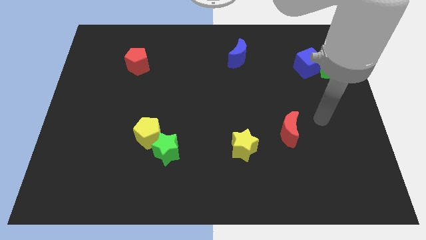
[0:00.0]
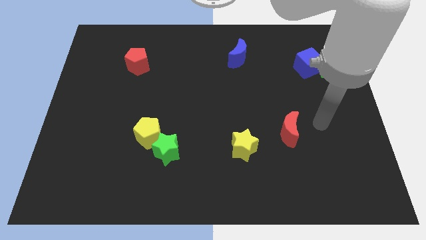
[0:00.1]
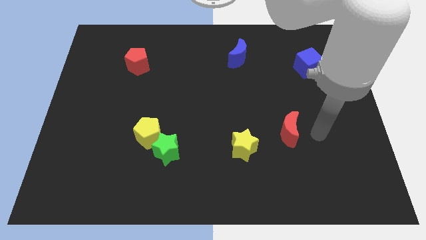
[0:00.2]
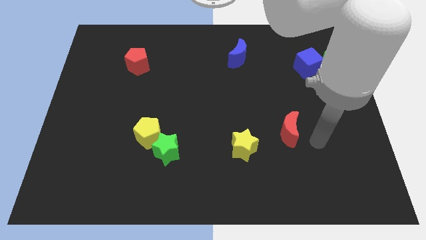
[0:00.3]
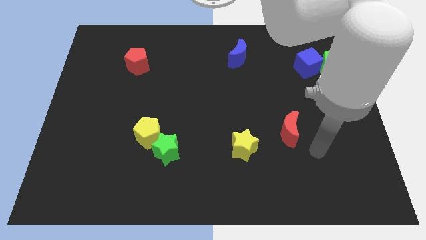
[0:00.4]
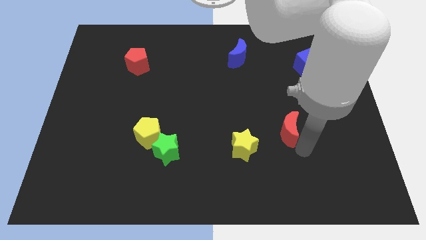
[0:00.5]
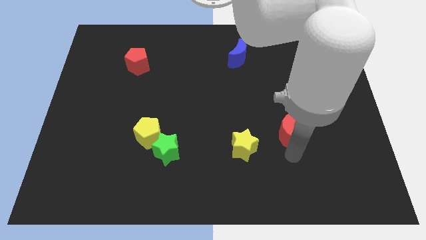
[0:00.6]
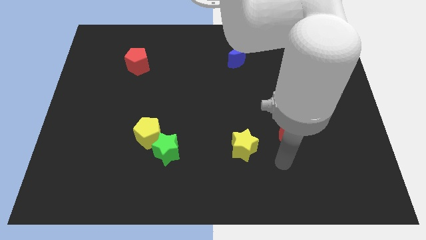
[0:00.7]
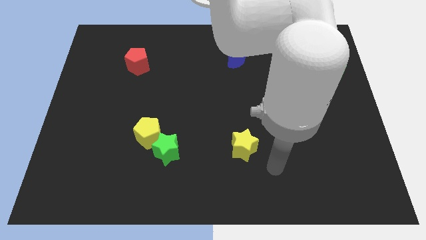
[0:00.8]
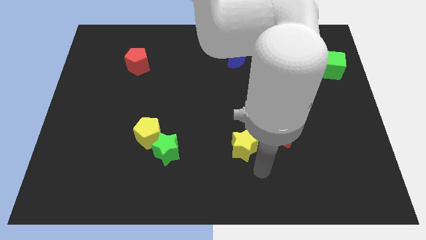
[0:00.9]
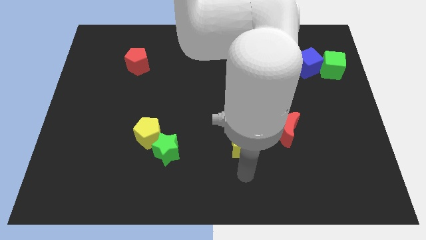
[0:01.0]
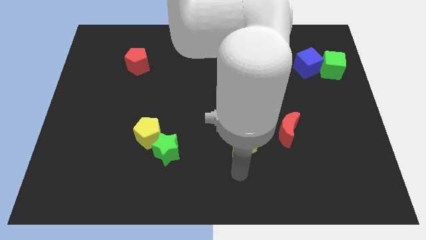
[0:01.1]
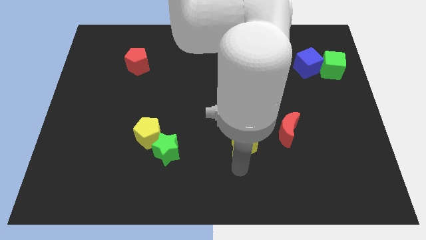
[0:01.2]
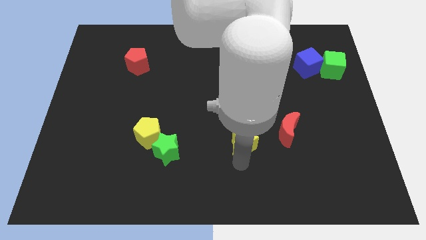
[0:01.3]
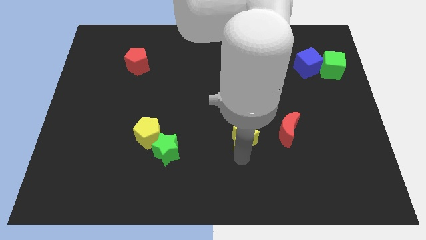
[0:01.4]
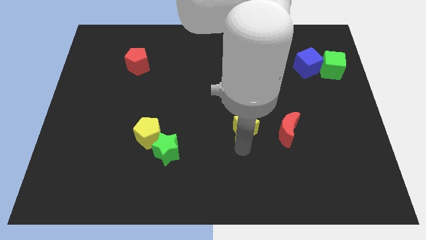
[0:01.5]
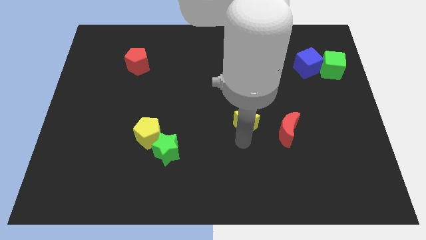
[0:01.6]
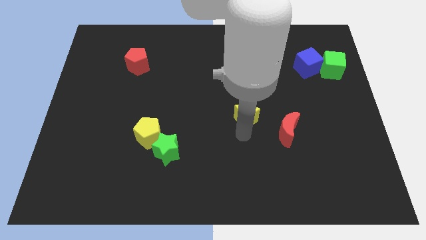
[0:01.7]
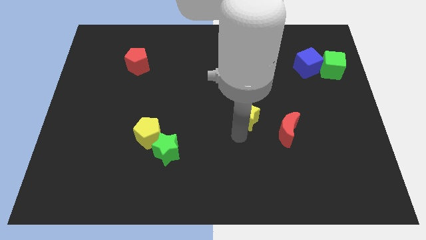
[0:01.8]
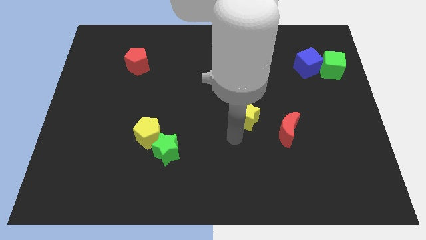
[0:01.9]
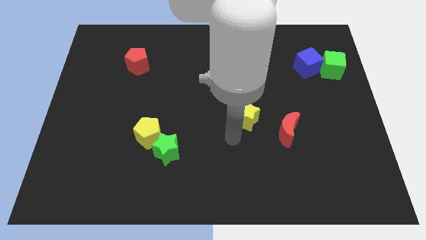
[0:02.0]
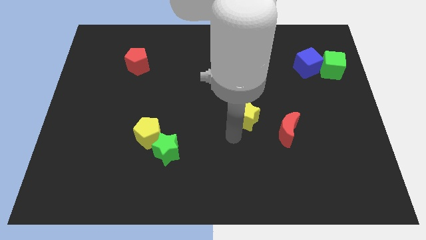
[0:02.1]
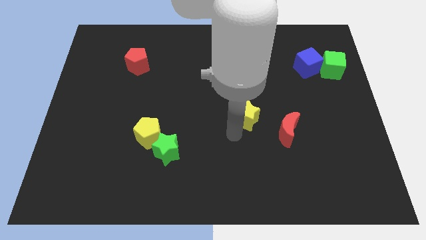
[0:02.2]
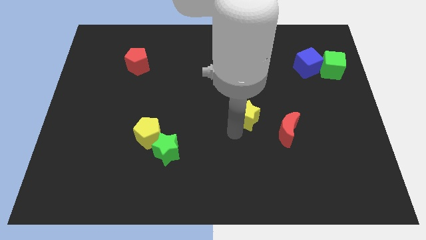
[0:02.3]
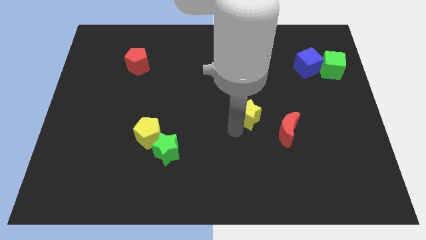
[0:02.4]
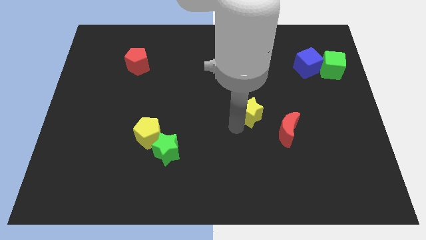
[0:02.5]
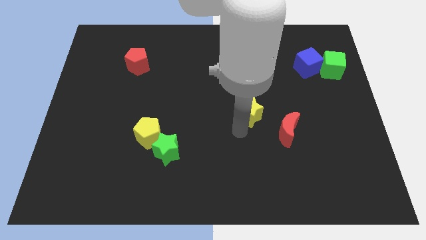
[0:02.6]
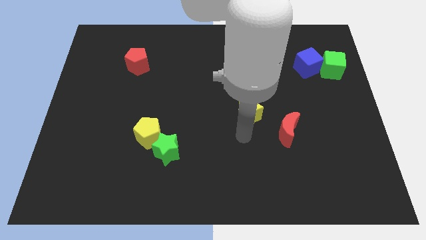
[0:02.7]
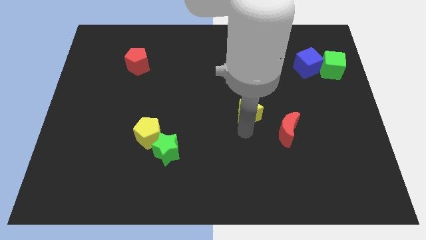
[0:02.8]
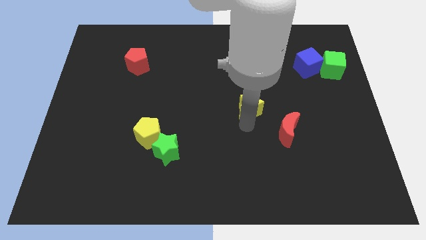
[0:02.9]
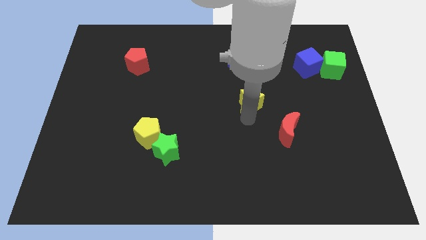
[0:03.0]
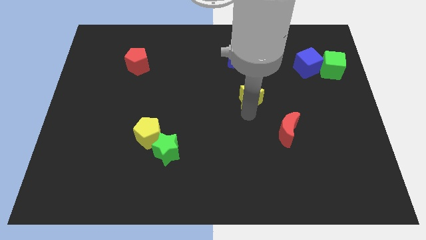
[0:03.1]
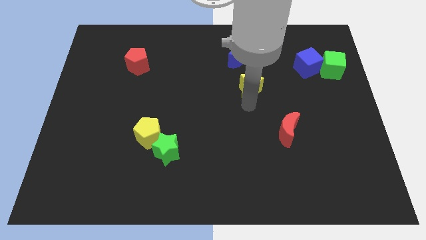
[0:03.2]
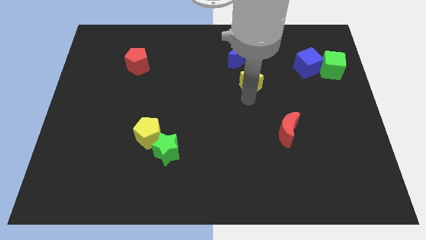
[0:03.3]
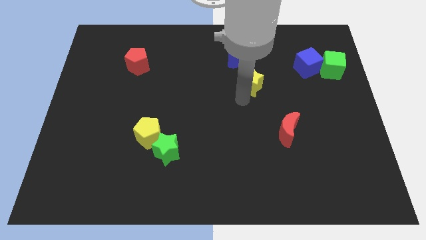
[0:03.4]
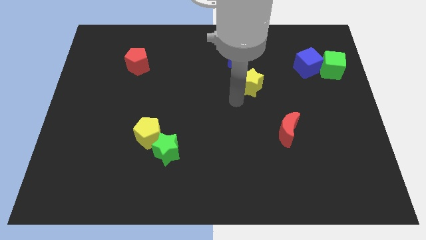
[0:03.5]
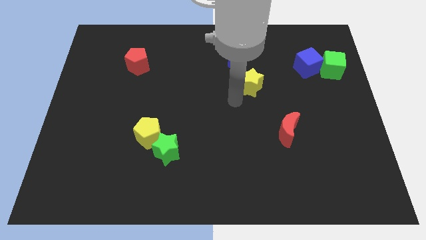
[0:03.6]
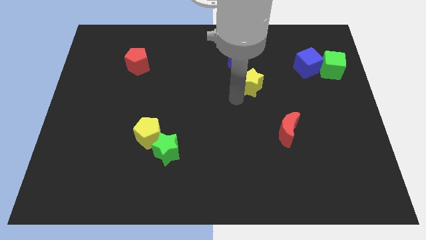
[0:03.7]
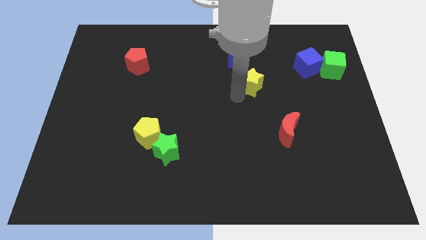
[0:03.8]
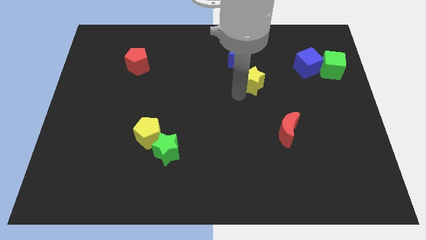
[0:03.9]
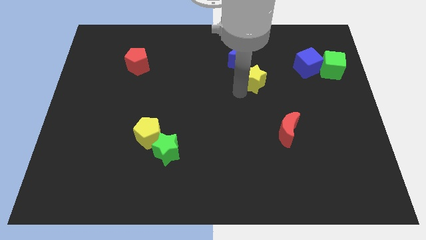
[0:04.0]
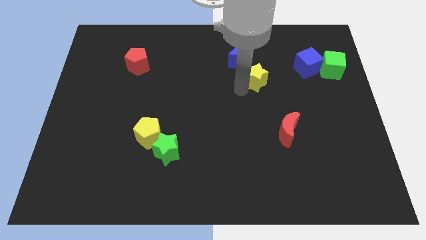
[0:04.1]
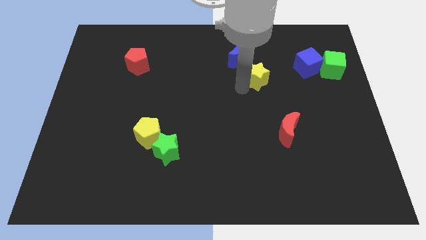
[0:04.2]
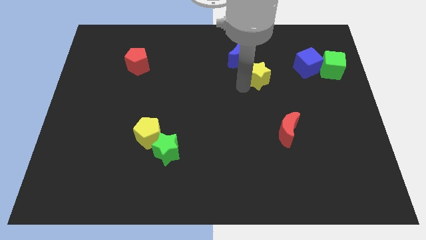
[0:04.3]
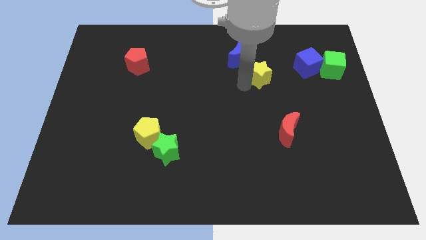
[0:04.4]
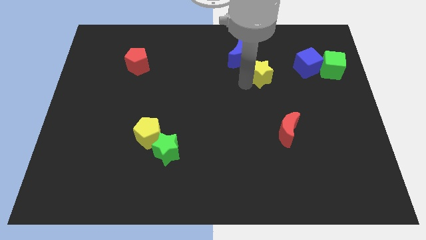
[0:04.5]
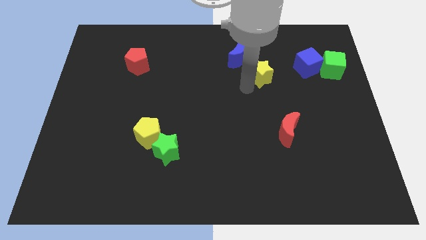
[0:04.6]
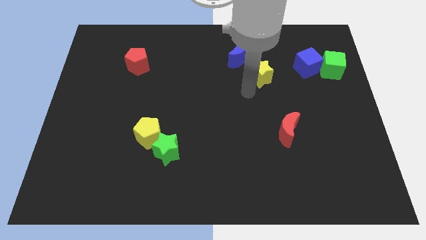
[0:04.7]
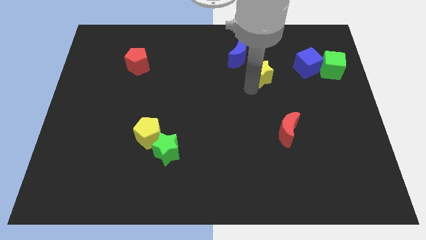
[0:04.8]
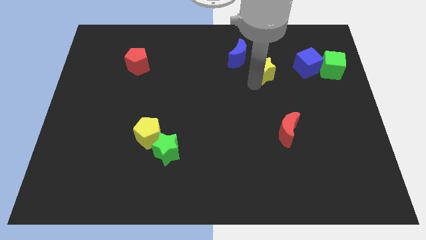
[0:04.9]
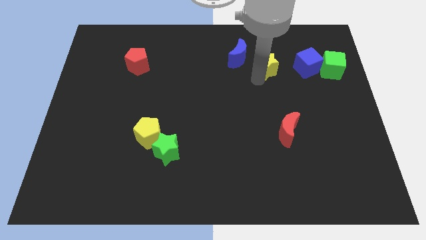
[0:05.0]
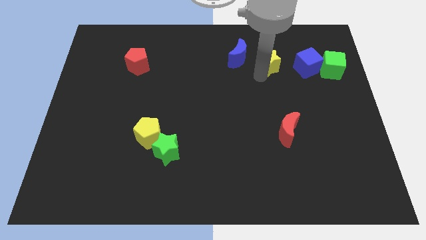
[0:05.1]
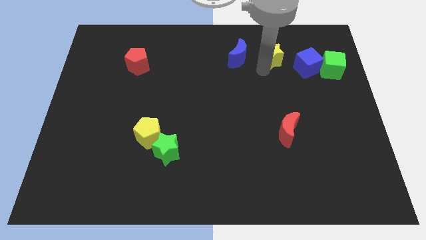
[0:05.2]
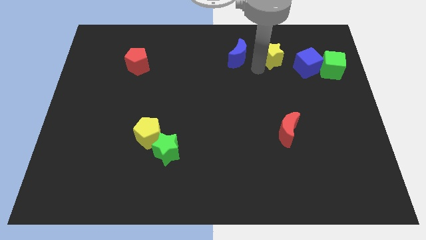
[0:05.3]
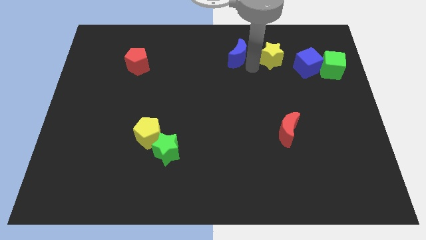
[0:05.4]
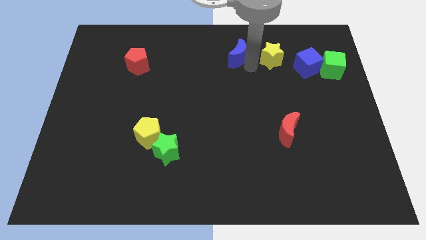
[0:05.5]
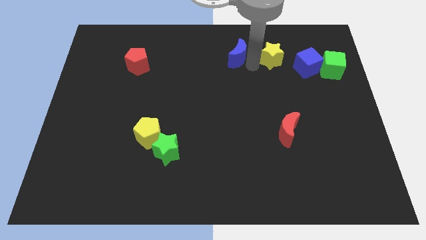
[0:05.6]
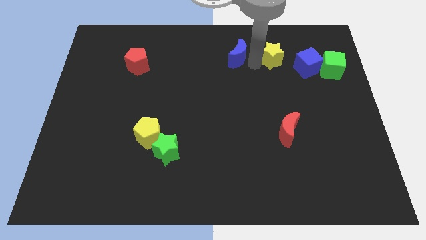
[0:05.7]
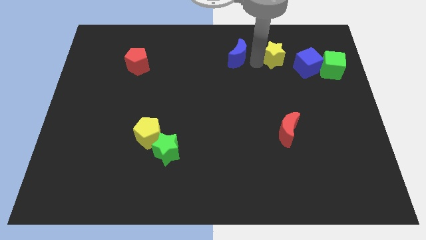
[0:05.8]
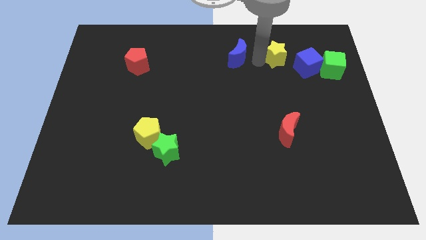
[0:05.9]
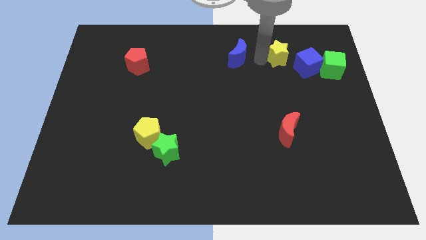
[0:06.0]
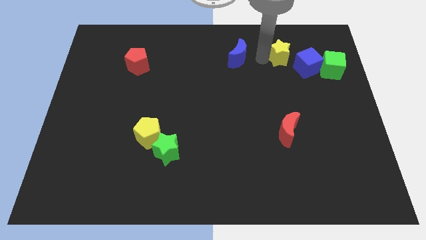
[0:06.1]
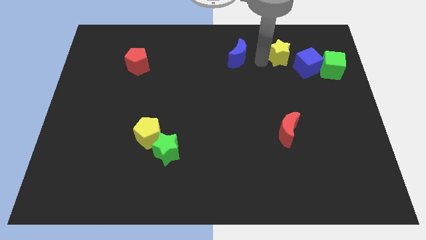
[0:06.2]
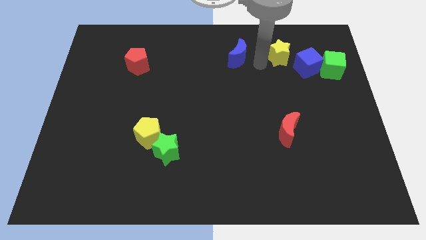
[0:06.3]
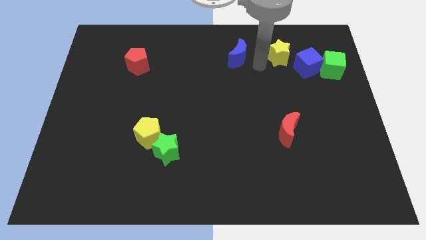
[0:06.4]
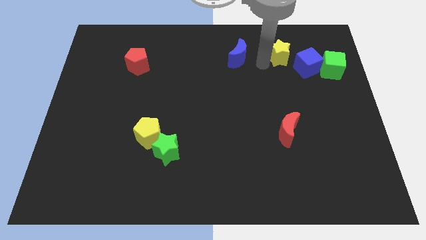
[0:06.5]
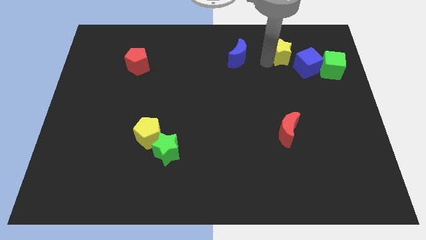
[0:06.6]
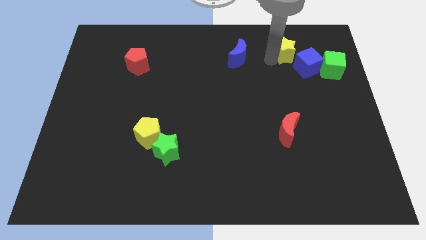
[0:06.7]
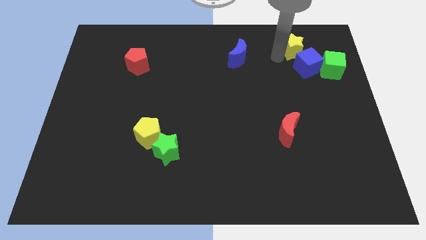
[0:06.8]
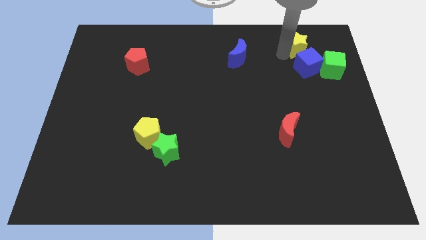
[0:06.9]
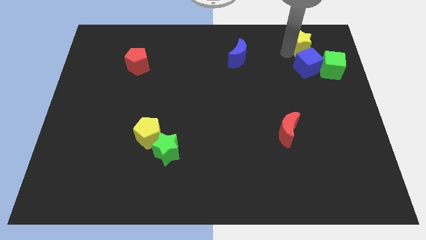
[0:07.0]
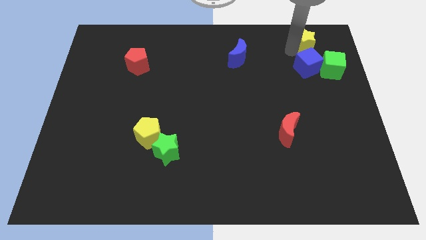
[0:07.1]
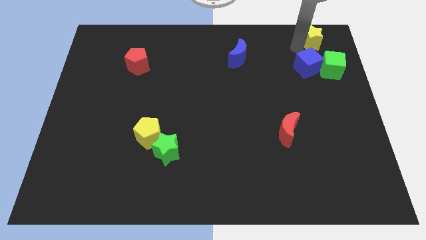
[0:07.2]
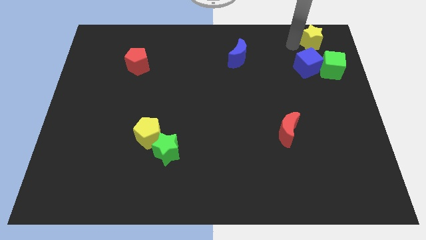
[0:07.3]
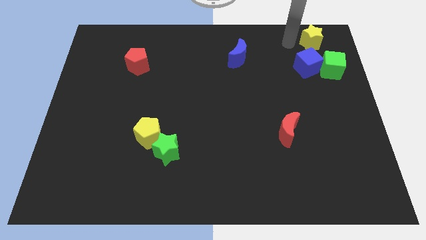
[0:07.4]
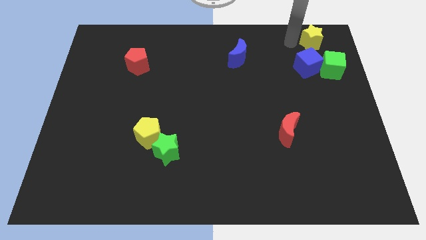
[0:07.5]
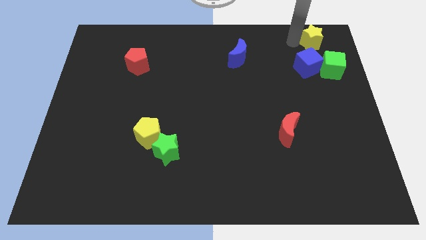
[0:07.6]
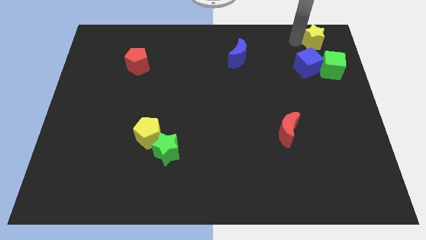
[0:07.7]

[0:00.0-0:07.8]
put the yellow star to the top right of the board
